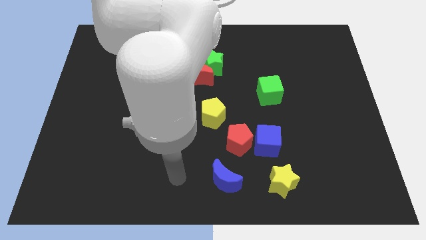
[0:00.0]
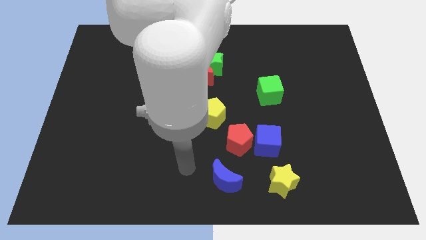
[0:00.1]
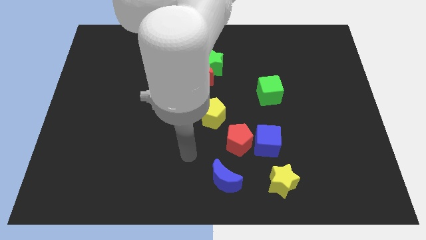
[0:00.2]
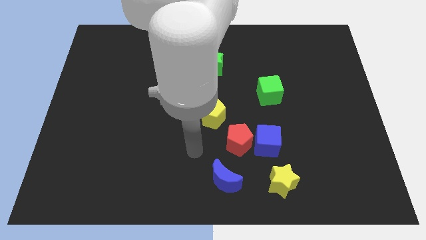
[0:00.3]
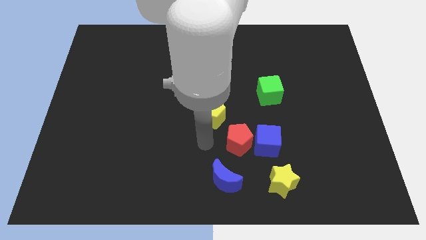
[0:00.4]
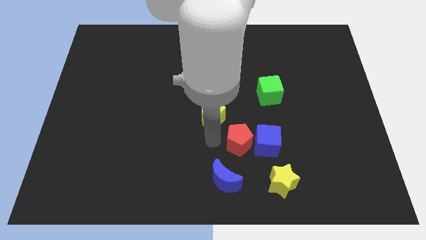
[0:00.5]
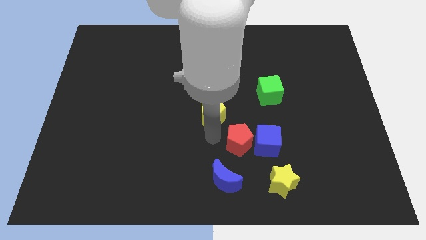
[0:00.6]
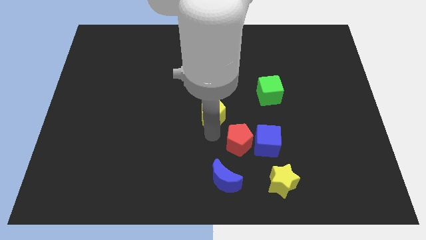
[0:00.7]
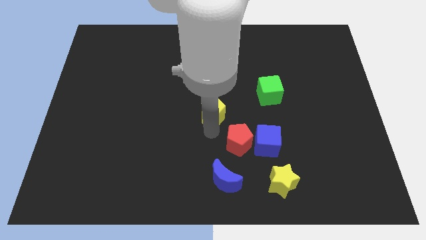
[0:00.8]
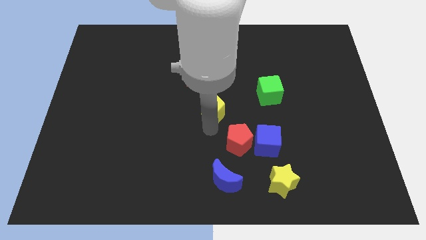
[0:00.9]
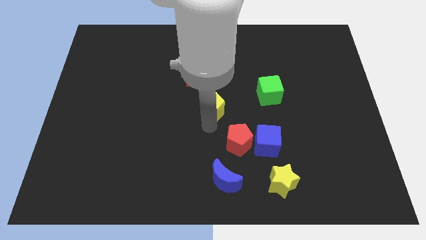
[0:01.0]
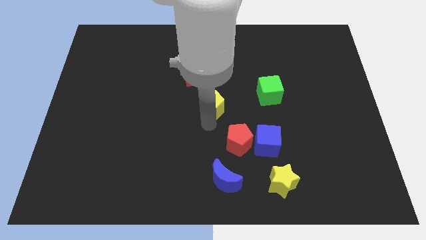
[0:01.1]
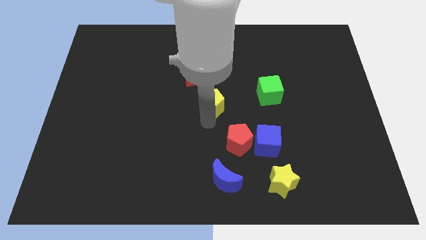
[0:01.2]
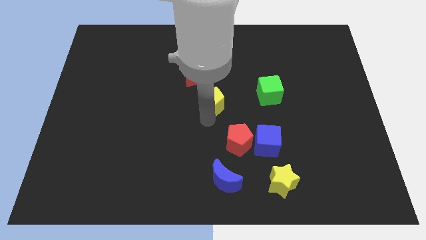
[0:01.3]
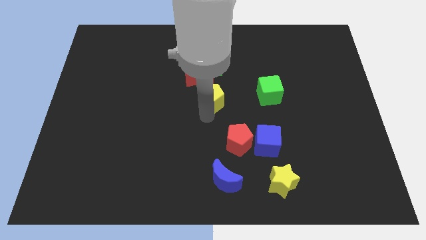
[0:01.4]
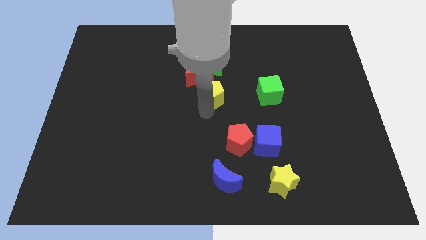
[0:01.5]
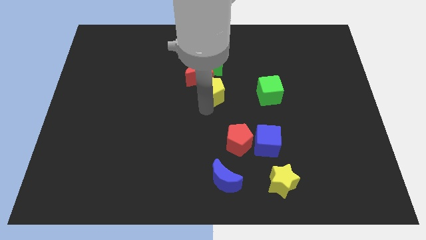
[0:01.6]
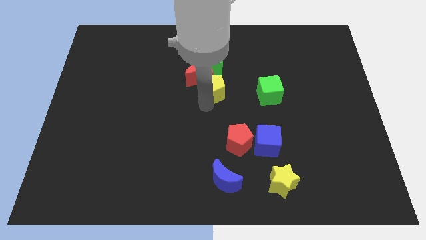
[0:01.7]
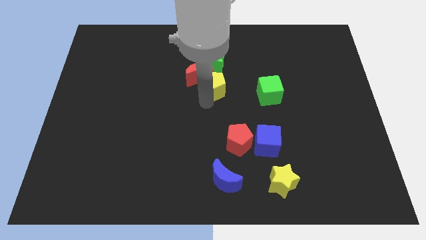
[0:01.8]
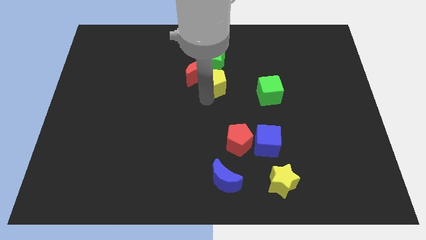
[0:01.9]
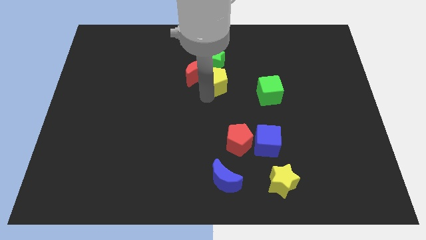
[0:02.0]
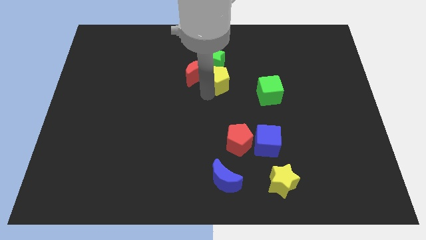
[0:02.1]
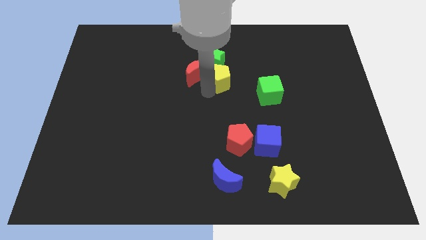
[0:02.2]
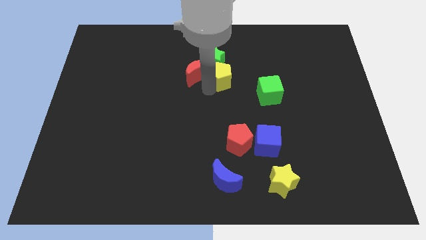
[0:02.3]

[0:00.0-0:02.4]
put the yellow pentagon to the green star

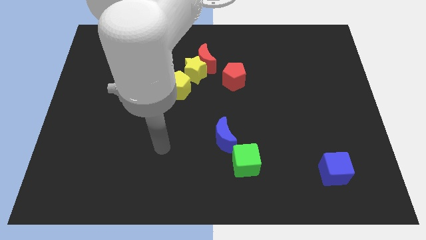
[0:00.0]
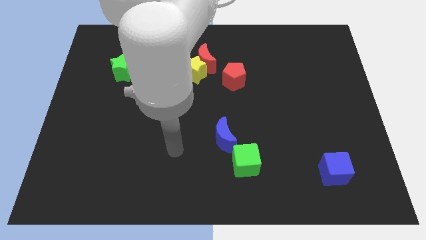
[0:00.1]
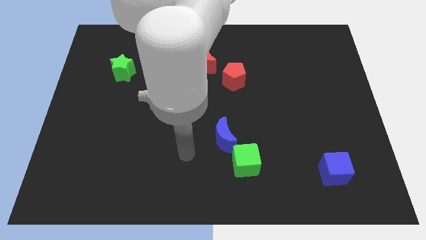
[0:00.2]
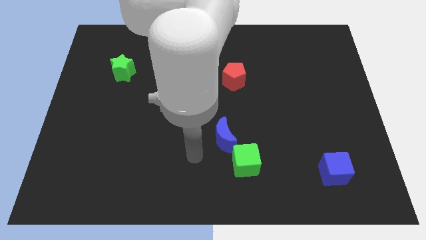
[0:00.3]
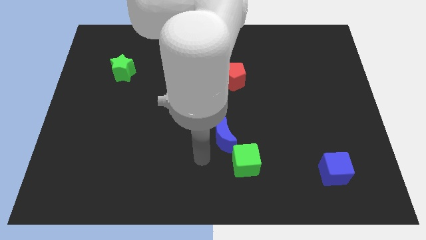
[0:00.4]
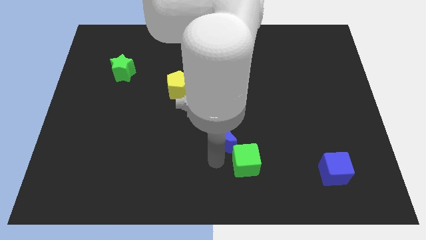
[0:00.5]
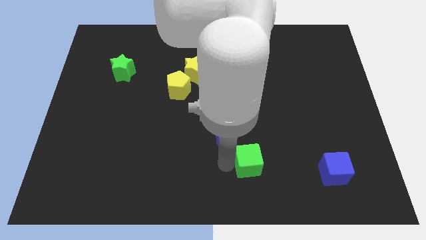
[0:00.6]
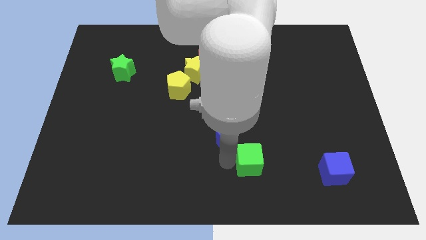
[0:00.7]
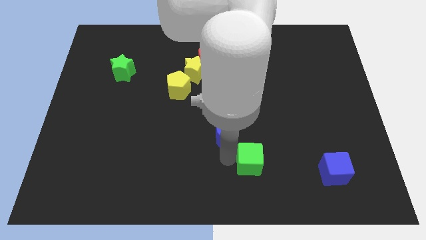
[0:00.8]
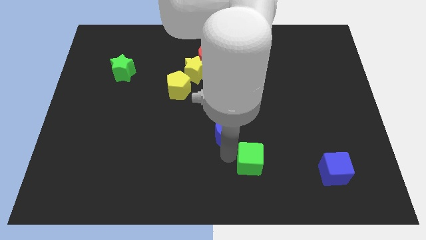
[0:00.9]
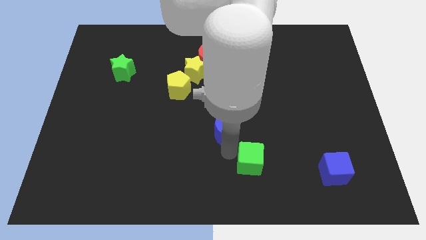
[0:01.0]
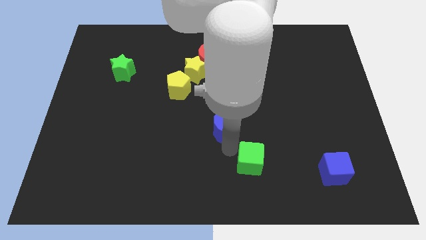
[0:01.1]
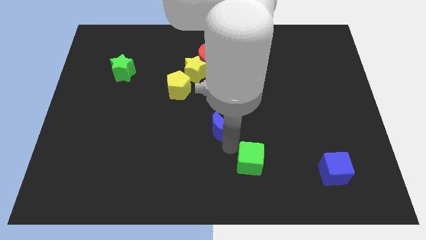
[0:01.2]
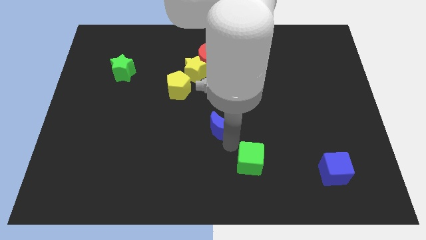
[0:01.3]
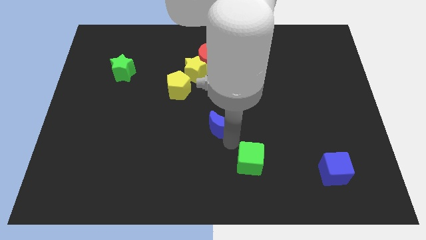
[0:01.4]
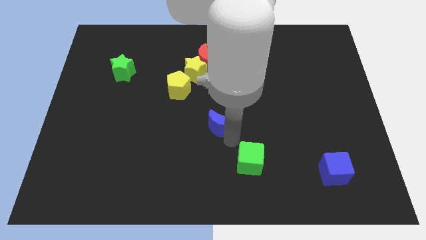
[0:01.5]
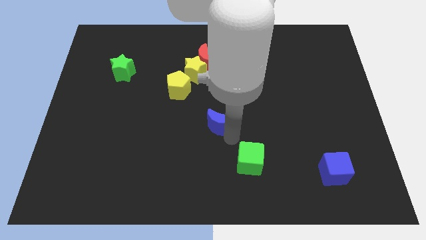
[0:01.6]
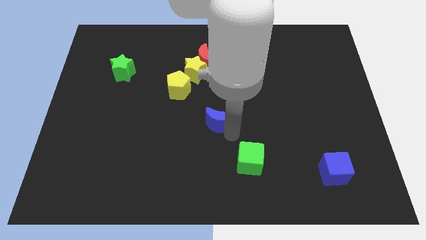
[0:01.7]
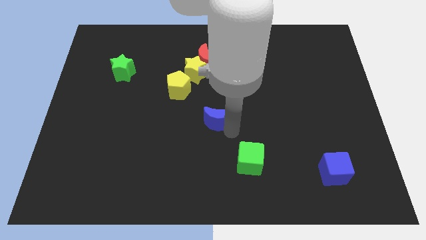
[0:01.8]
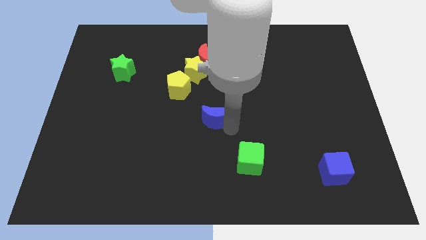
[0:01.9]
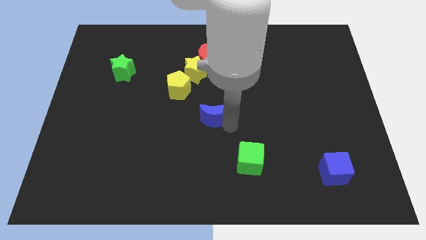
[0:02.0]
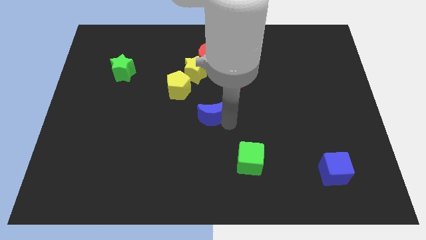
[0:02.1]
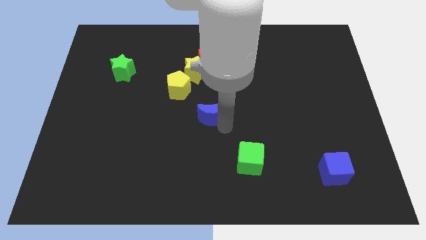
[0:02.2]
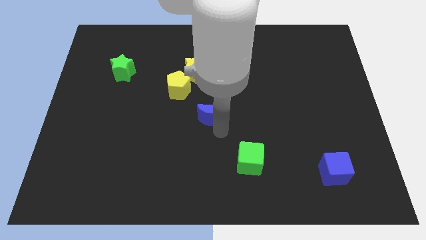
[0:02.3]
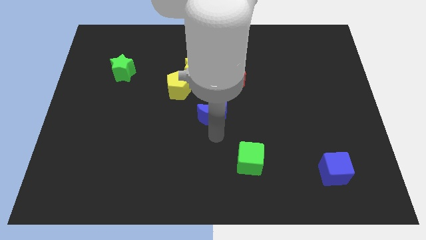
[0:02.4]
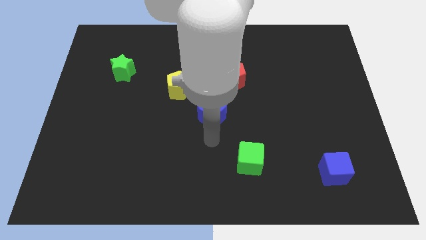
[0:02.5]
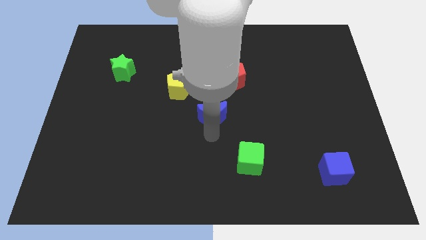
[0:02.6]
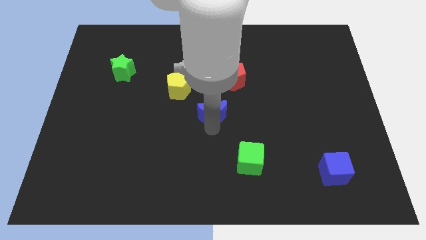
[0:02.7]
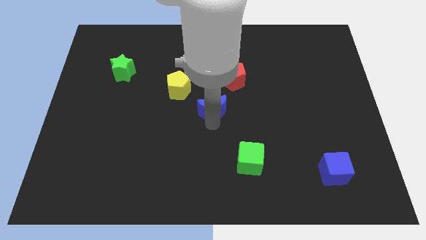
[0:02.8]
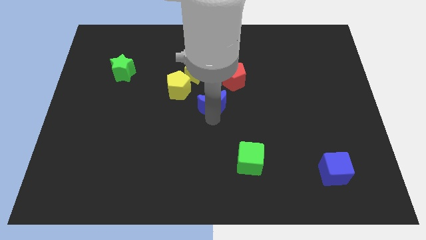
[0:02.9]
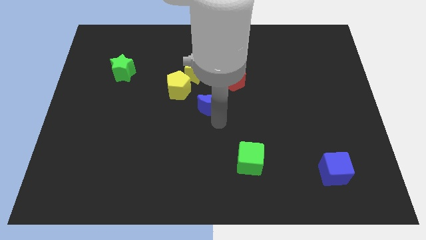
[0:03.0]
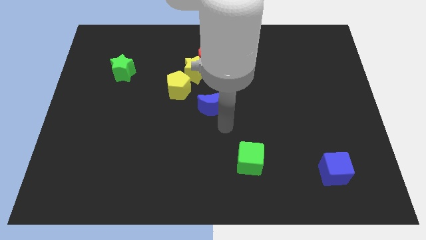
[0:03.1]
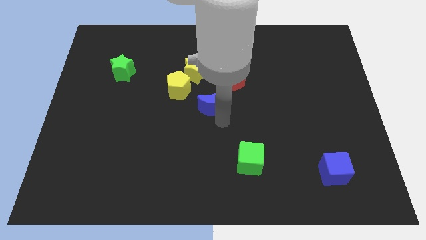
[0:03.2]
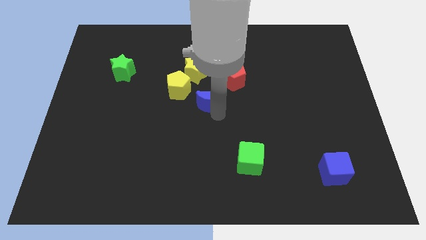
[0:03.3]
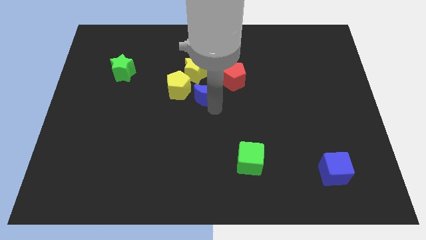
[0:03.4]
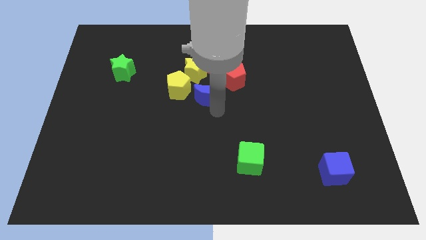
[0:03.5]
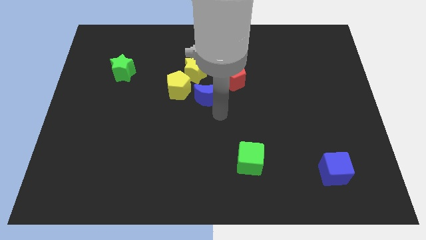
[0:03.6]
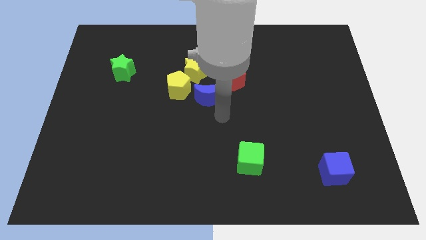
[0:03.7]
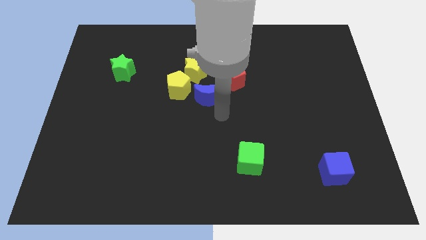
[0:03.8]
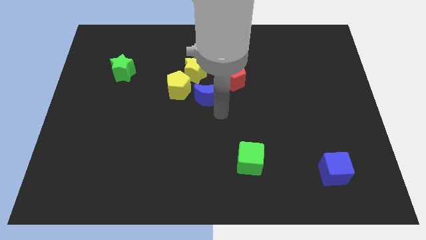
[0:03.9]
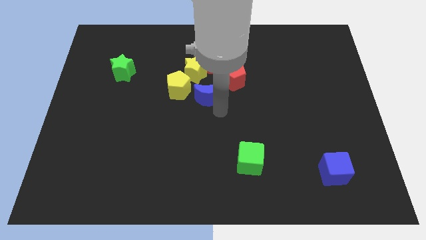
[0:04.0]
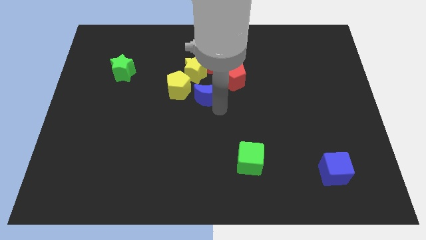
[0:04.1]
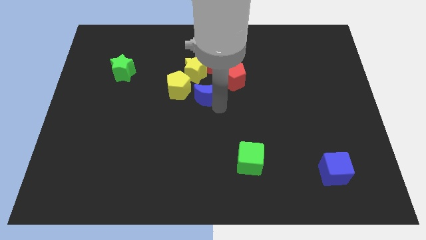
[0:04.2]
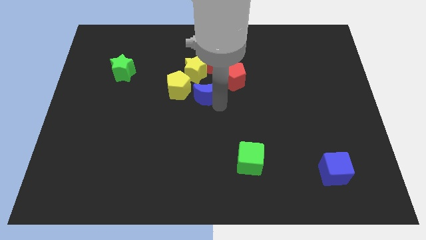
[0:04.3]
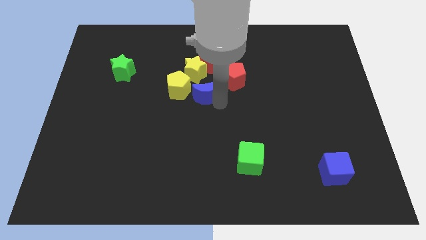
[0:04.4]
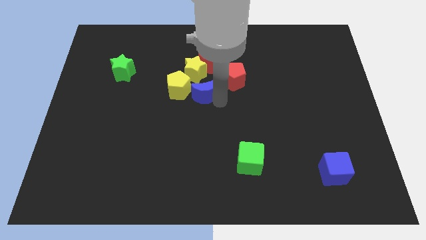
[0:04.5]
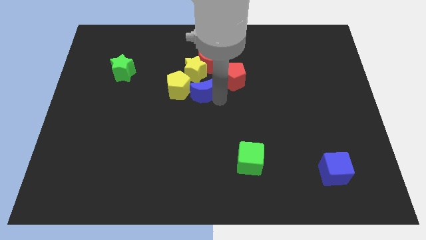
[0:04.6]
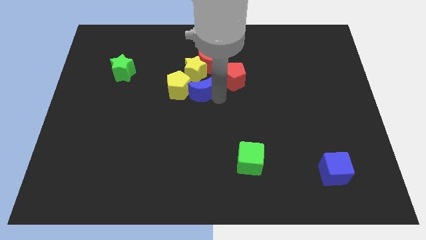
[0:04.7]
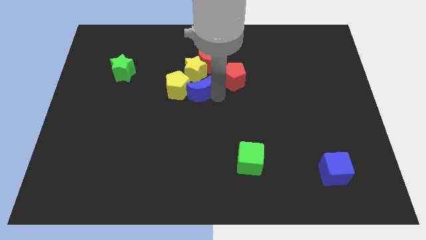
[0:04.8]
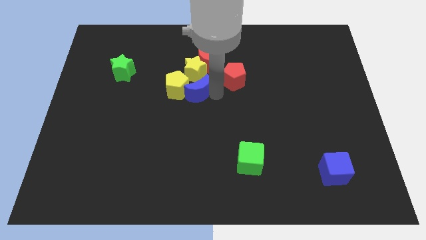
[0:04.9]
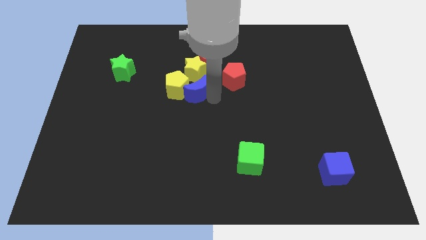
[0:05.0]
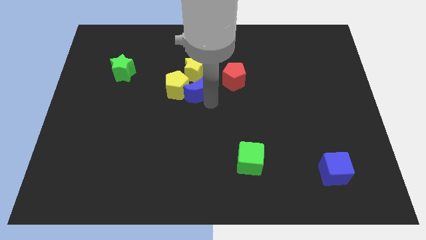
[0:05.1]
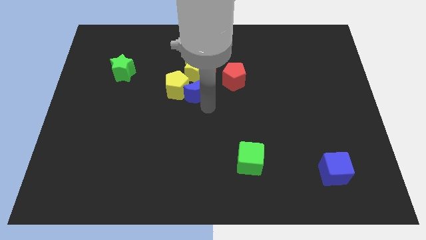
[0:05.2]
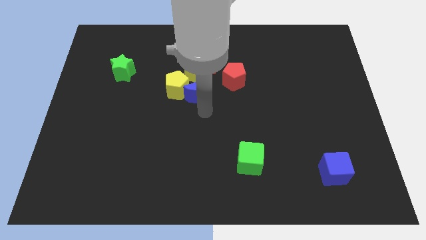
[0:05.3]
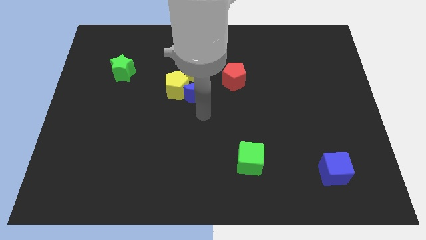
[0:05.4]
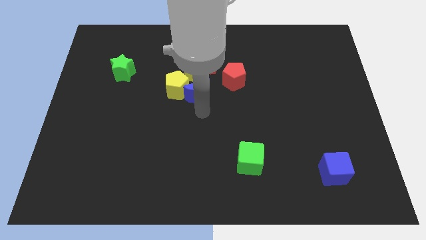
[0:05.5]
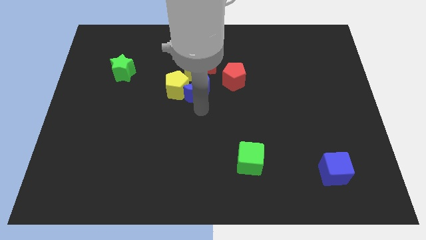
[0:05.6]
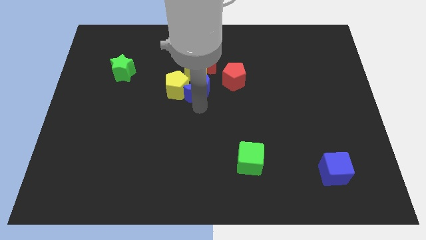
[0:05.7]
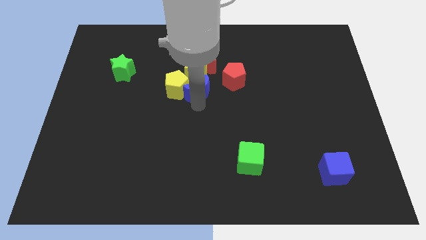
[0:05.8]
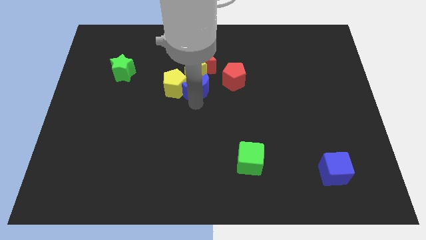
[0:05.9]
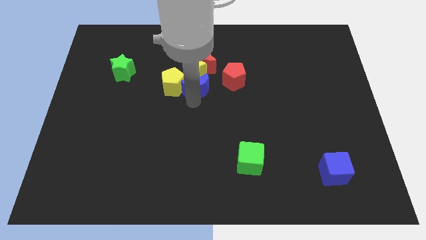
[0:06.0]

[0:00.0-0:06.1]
put the blue moon towards the yellow star
